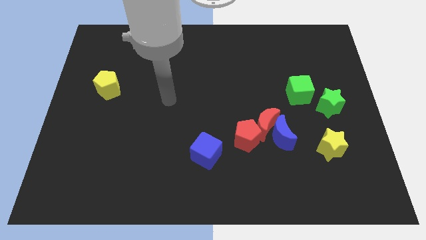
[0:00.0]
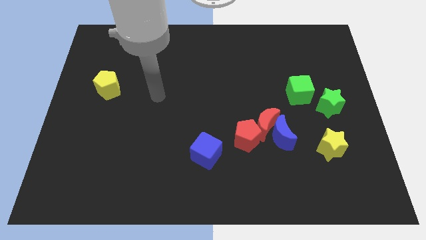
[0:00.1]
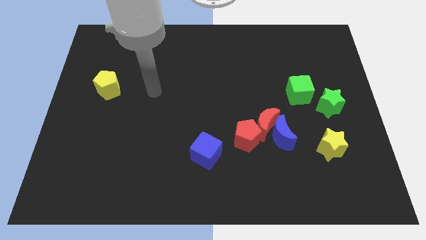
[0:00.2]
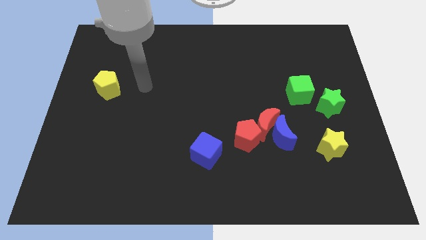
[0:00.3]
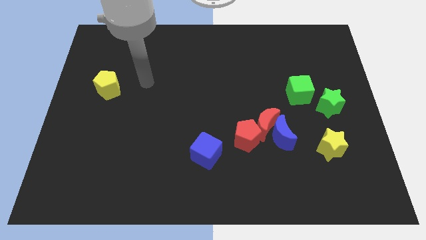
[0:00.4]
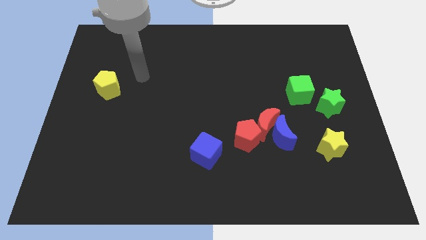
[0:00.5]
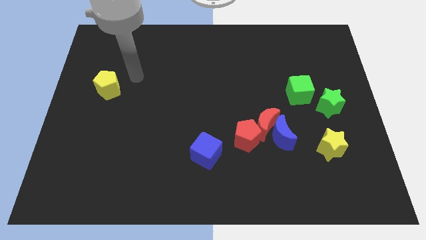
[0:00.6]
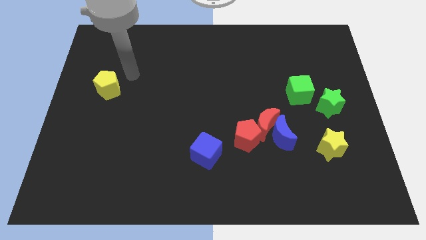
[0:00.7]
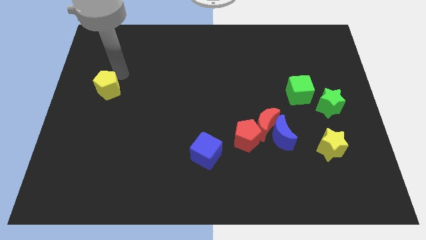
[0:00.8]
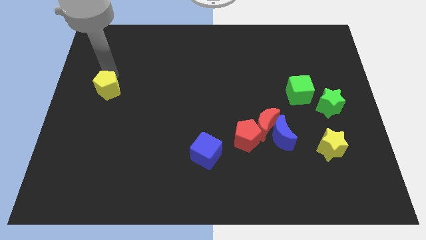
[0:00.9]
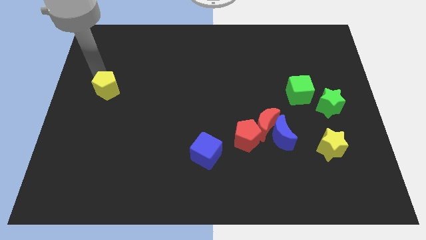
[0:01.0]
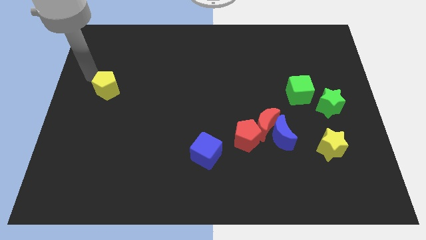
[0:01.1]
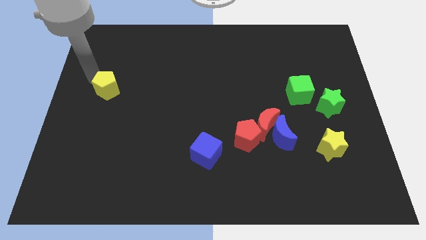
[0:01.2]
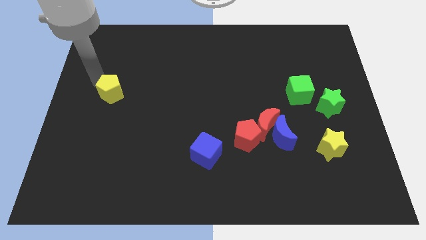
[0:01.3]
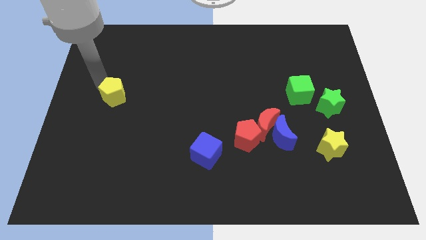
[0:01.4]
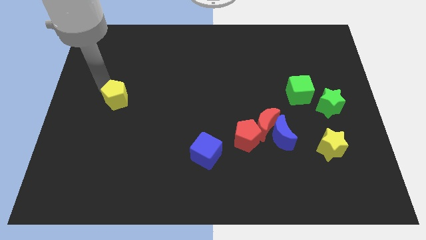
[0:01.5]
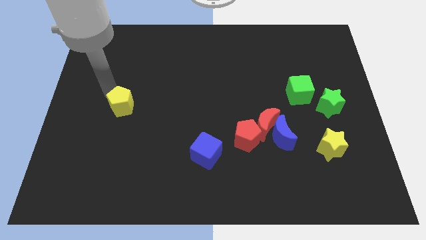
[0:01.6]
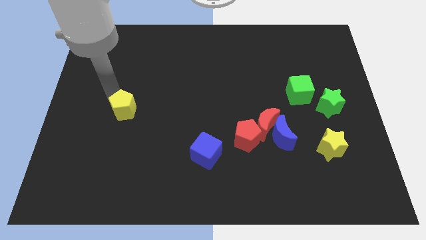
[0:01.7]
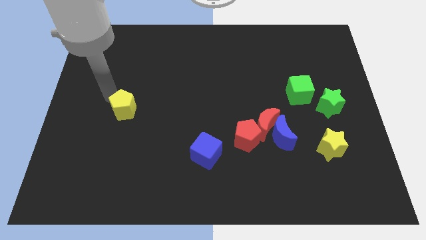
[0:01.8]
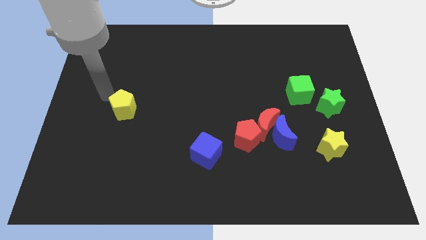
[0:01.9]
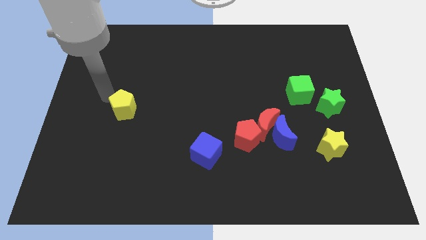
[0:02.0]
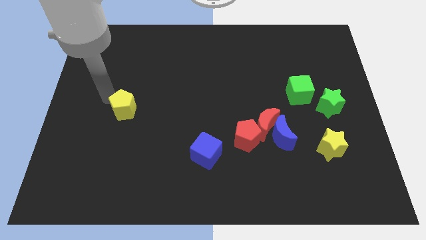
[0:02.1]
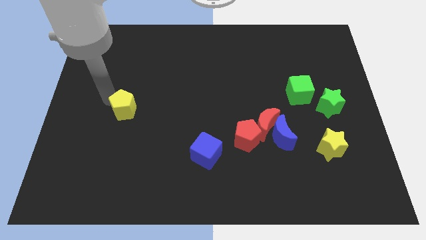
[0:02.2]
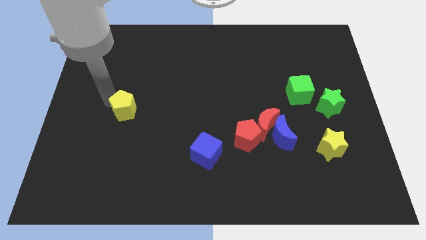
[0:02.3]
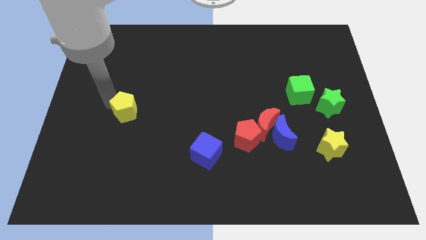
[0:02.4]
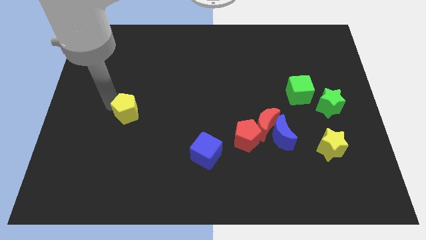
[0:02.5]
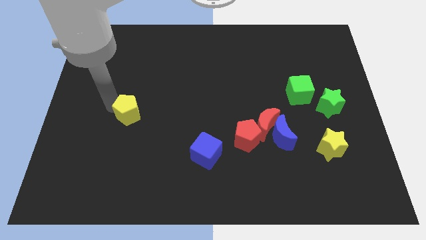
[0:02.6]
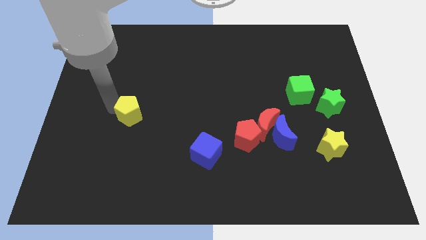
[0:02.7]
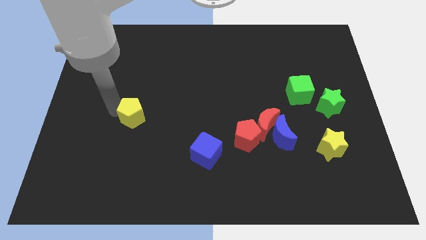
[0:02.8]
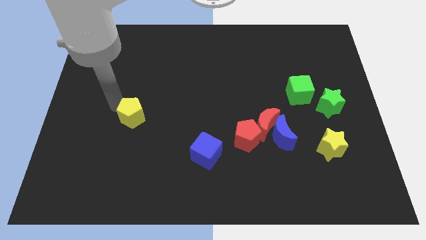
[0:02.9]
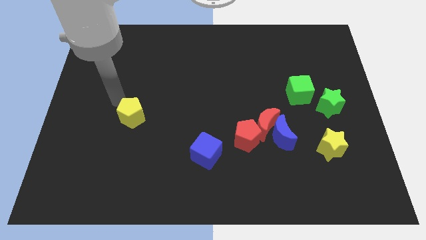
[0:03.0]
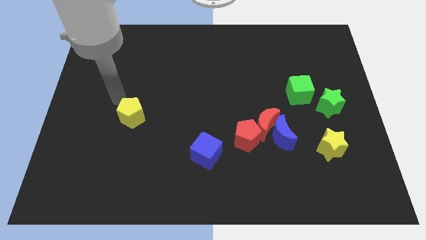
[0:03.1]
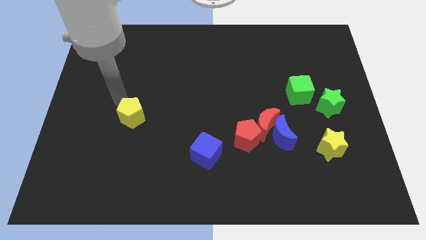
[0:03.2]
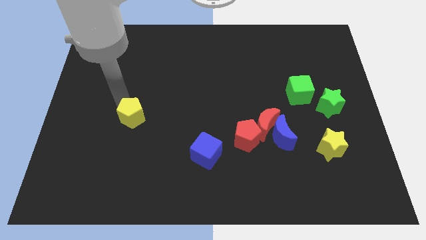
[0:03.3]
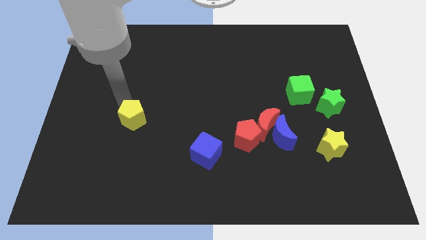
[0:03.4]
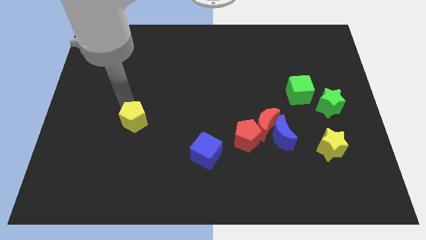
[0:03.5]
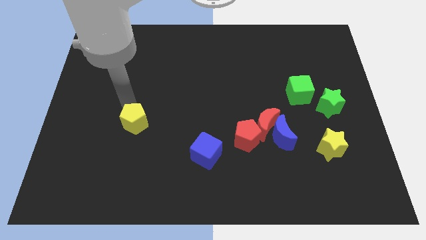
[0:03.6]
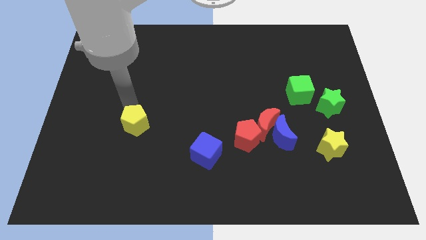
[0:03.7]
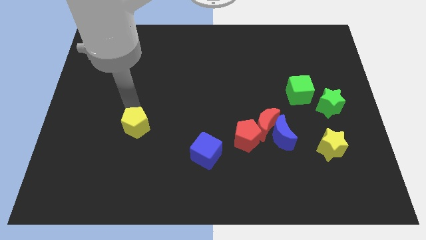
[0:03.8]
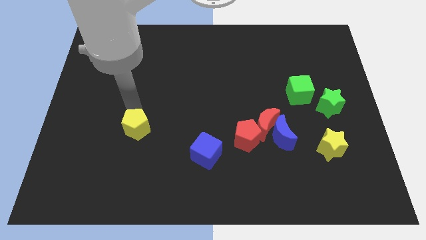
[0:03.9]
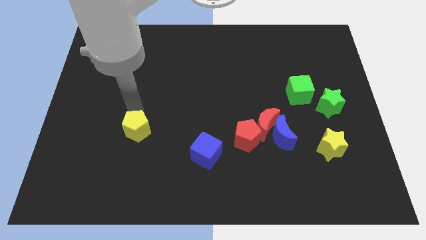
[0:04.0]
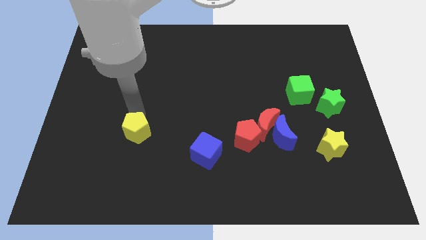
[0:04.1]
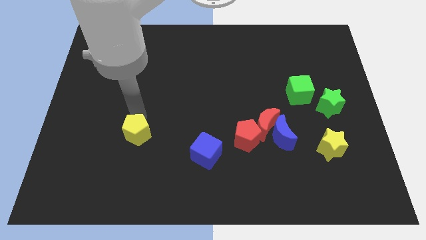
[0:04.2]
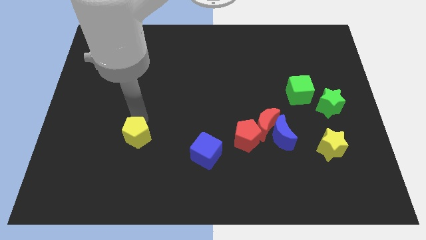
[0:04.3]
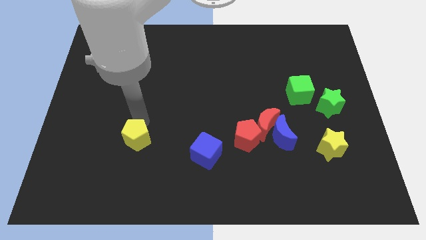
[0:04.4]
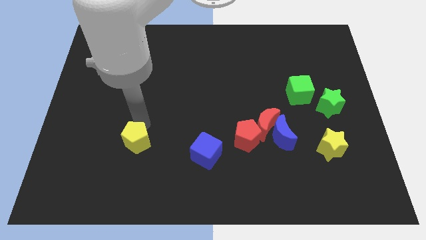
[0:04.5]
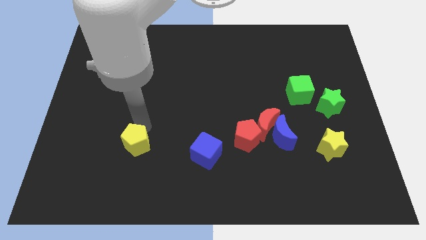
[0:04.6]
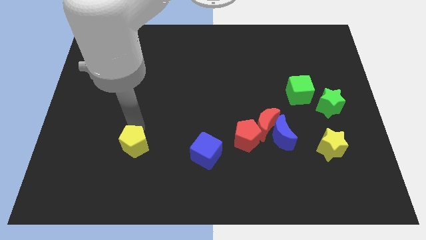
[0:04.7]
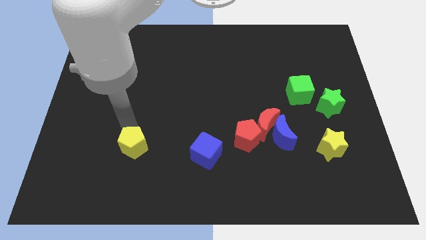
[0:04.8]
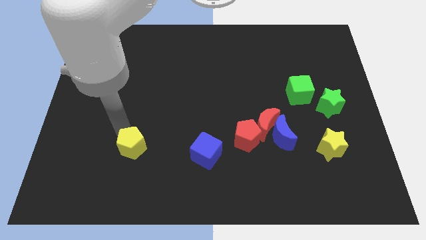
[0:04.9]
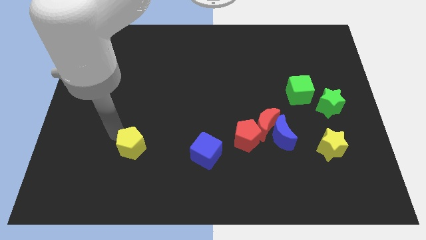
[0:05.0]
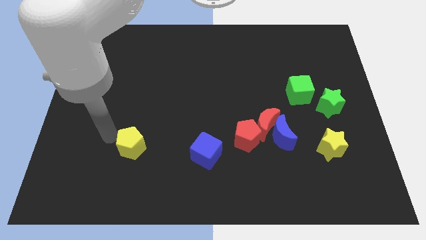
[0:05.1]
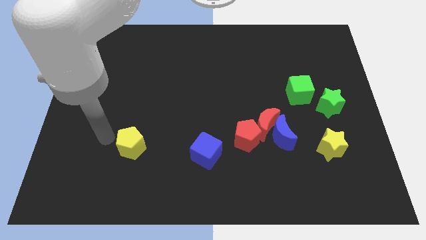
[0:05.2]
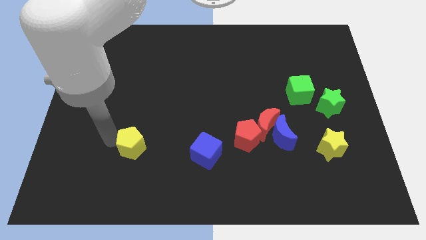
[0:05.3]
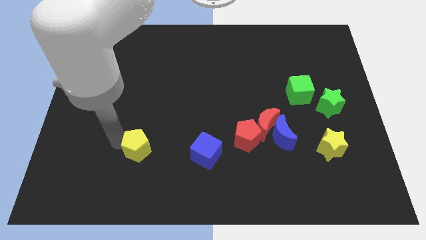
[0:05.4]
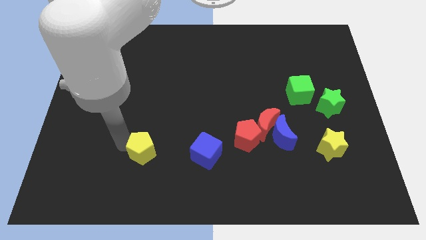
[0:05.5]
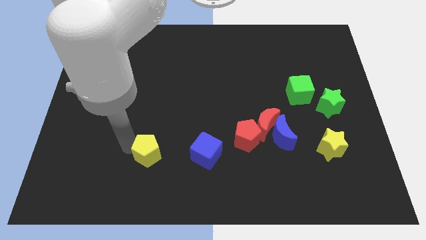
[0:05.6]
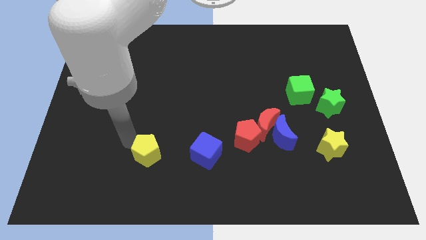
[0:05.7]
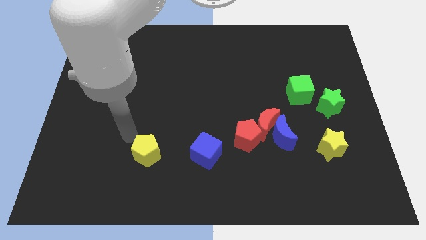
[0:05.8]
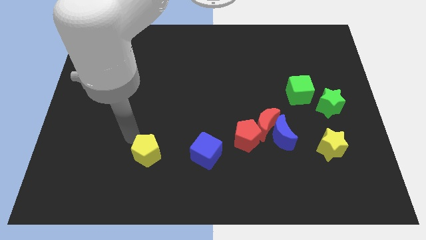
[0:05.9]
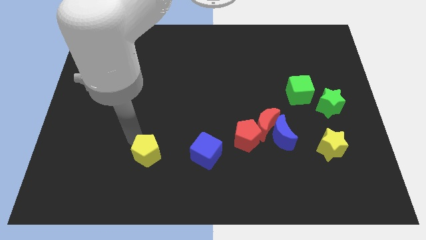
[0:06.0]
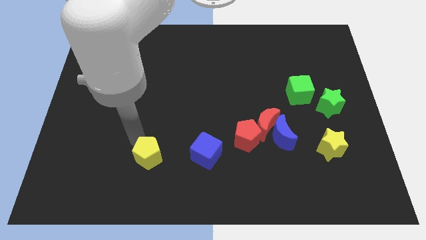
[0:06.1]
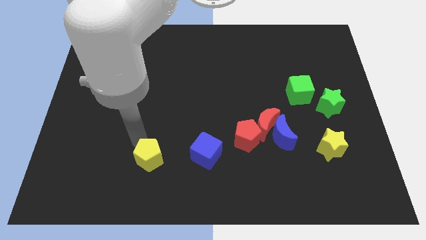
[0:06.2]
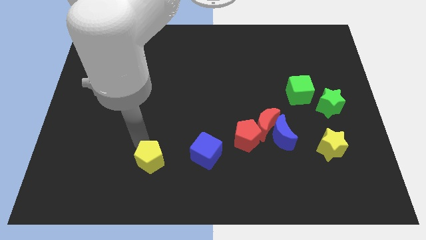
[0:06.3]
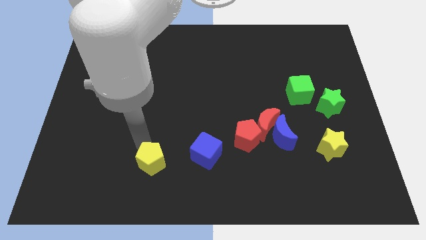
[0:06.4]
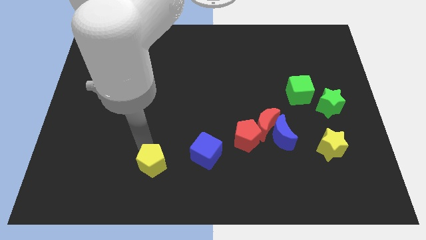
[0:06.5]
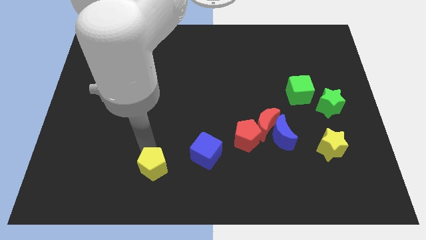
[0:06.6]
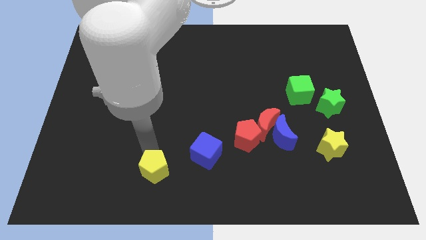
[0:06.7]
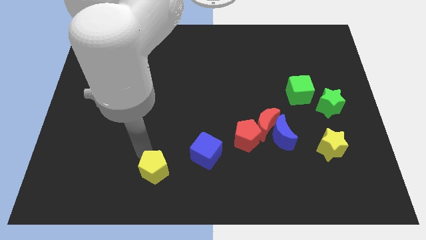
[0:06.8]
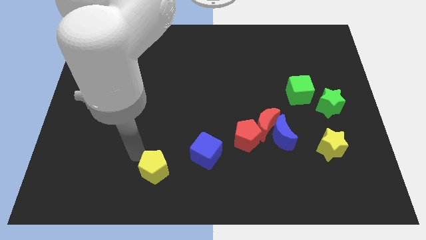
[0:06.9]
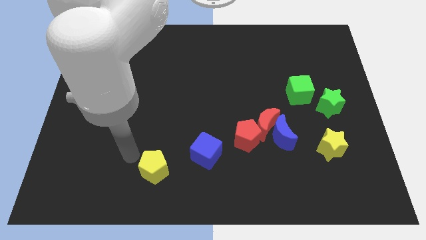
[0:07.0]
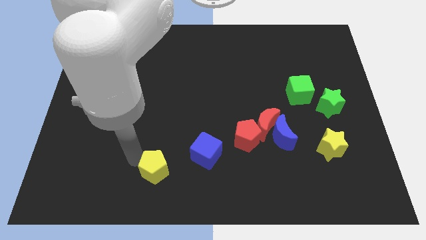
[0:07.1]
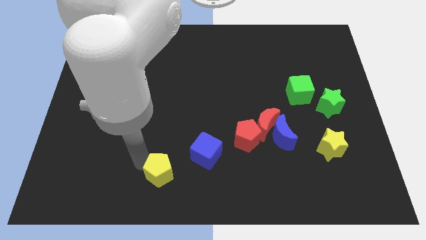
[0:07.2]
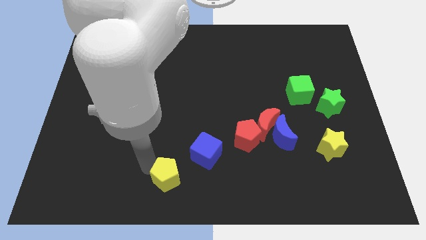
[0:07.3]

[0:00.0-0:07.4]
slide the yellow pentagon to the bottom
